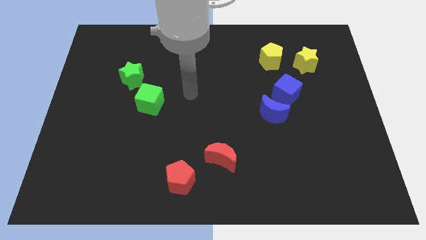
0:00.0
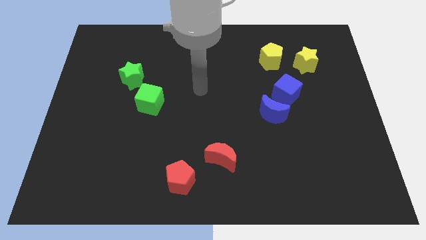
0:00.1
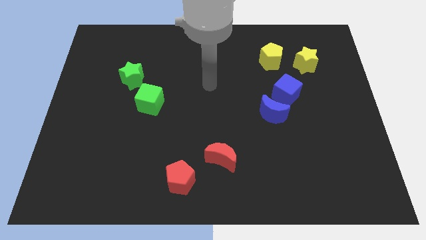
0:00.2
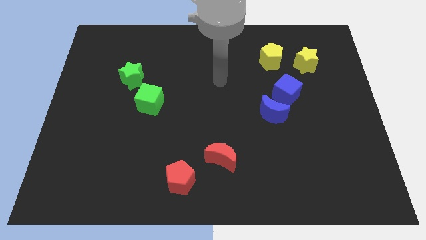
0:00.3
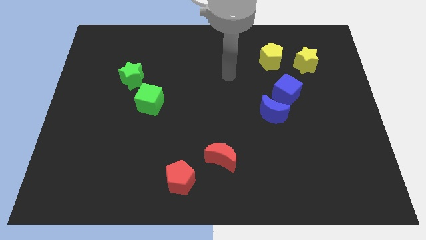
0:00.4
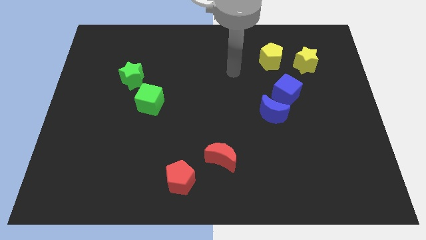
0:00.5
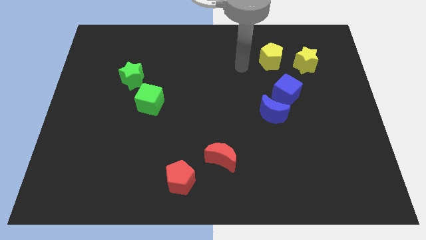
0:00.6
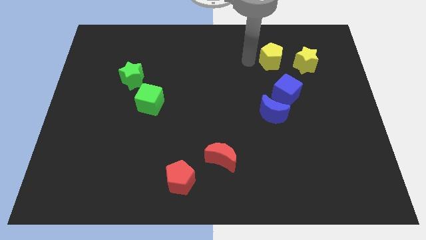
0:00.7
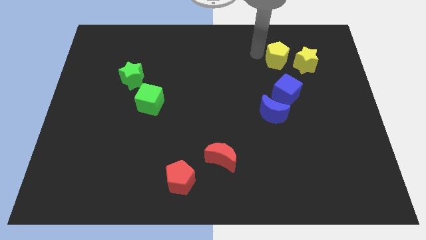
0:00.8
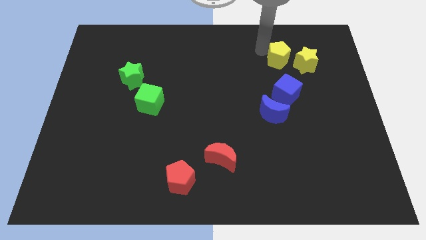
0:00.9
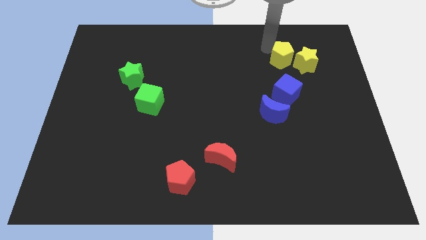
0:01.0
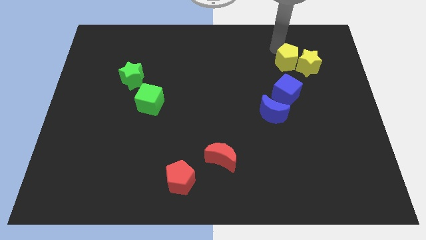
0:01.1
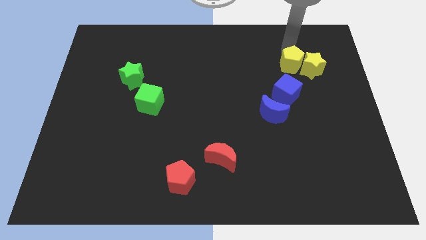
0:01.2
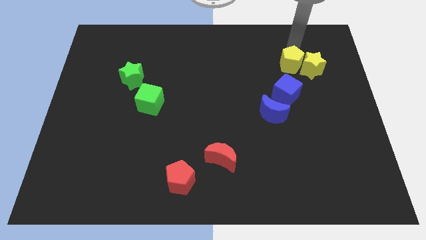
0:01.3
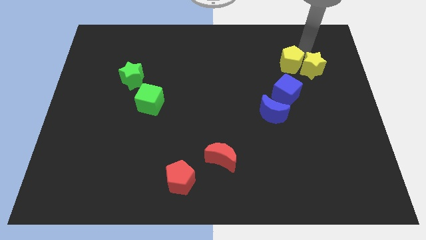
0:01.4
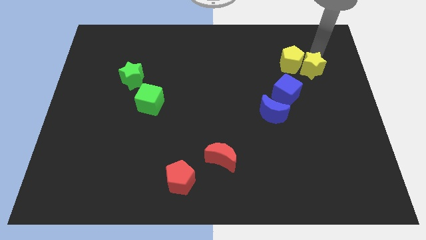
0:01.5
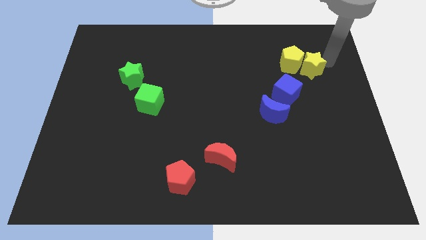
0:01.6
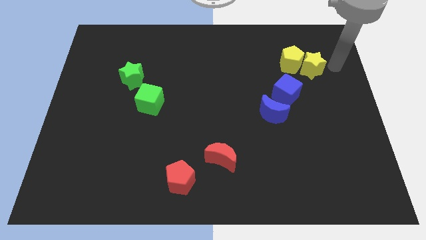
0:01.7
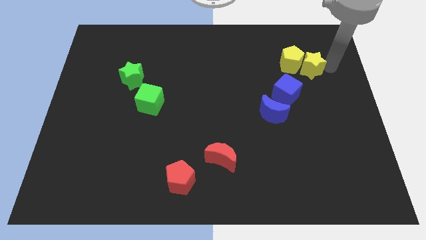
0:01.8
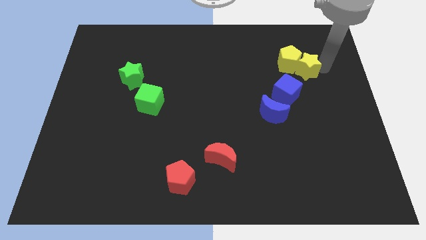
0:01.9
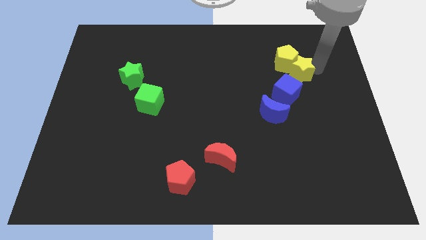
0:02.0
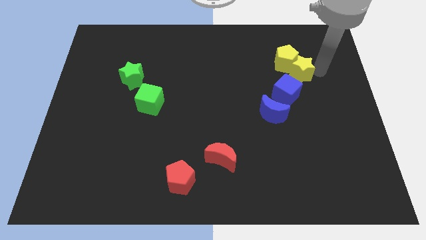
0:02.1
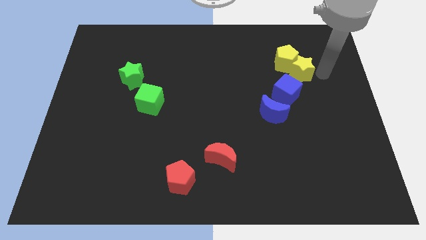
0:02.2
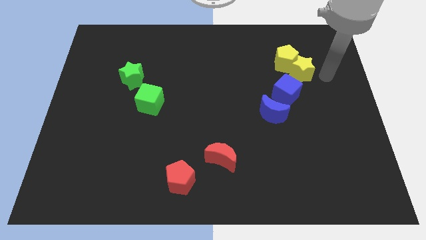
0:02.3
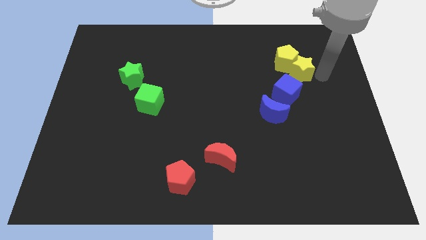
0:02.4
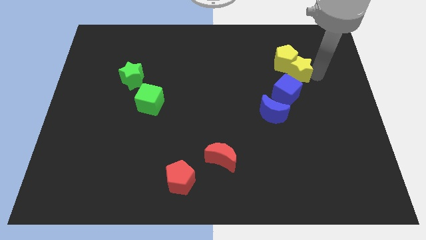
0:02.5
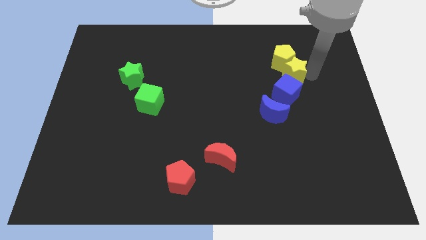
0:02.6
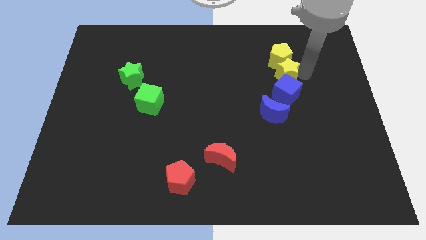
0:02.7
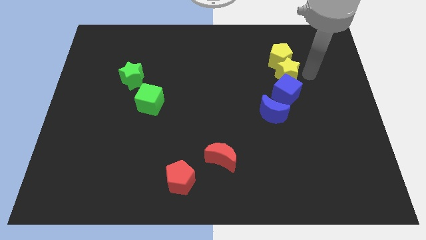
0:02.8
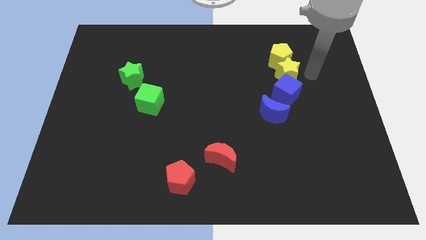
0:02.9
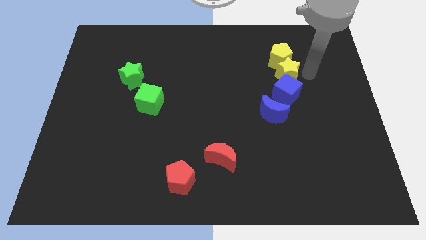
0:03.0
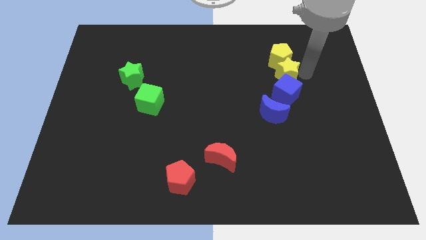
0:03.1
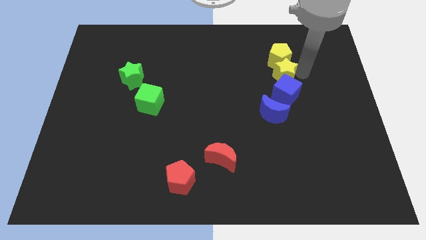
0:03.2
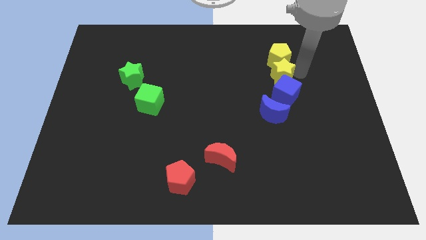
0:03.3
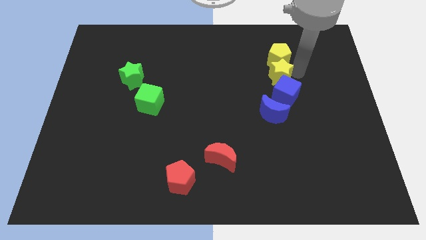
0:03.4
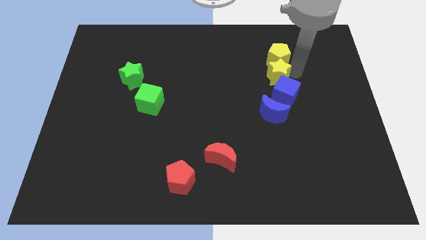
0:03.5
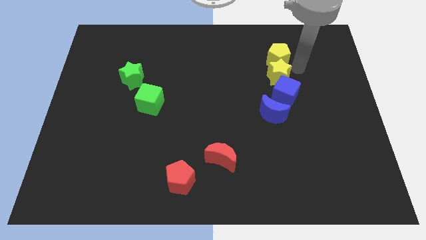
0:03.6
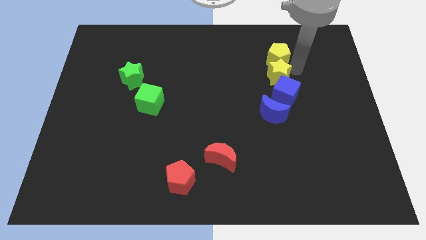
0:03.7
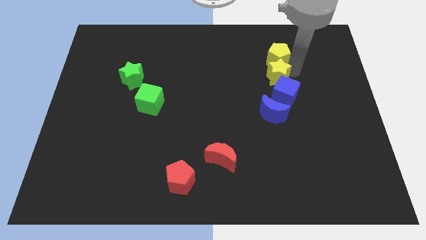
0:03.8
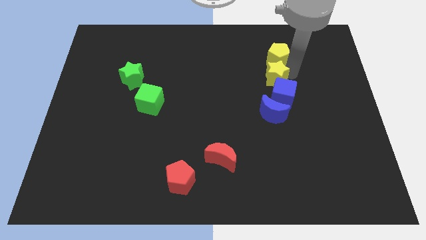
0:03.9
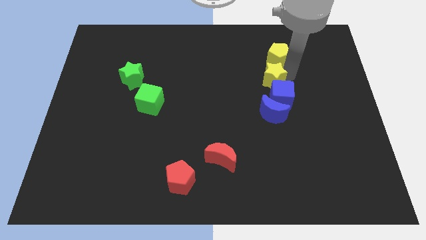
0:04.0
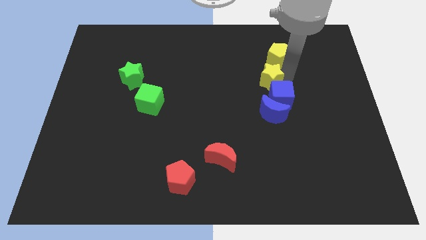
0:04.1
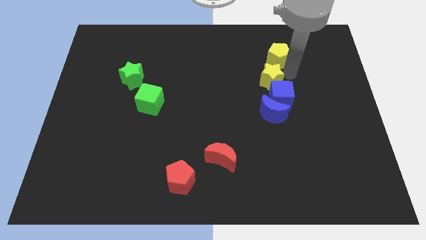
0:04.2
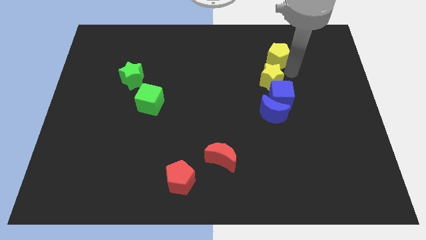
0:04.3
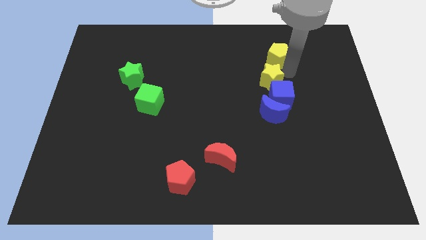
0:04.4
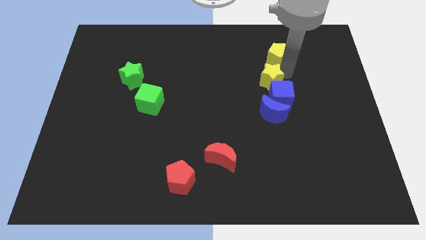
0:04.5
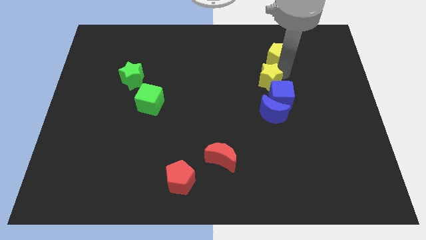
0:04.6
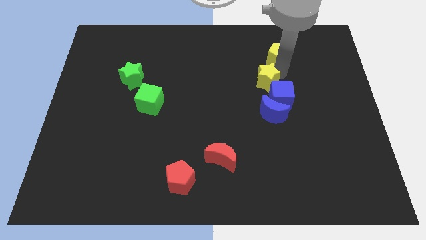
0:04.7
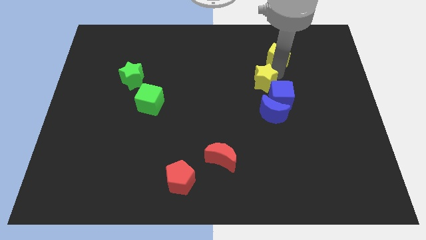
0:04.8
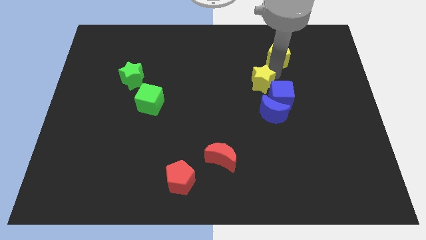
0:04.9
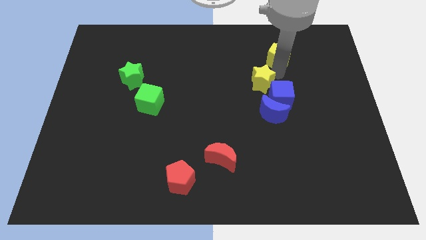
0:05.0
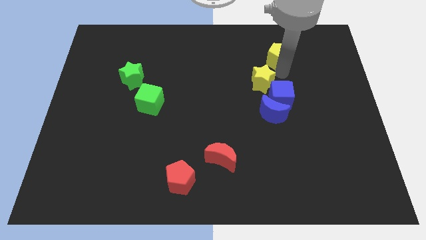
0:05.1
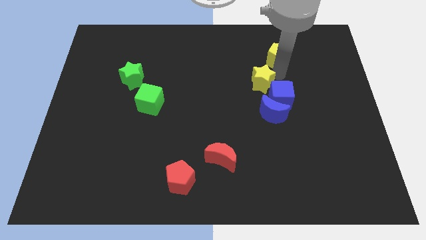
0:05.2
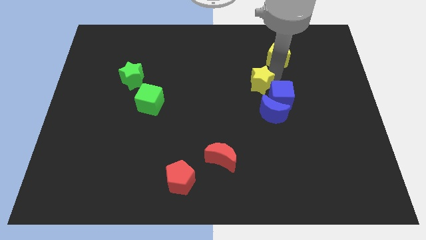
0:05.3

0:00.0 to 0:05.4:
move the yellow star to the center
